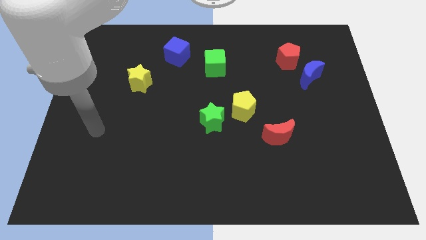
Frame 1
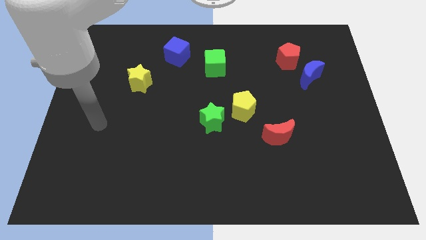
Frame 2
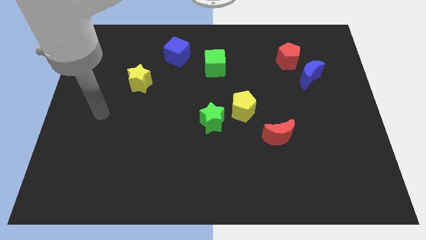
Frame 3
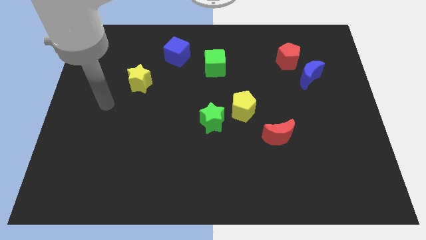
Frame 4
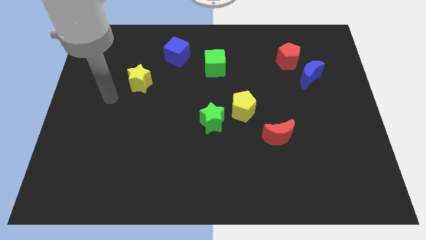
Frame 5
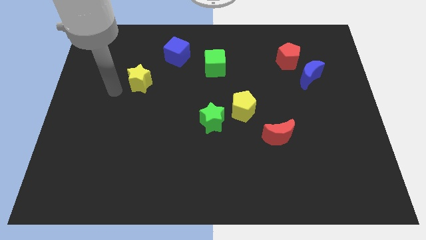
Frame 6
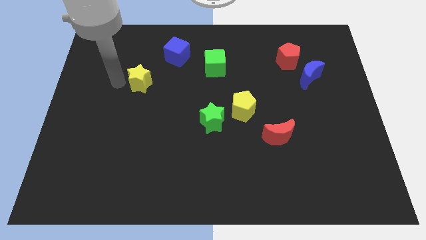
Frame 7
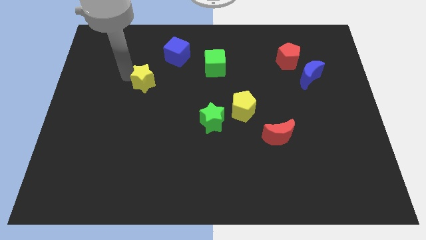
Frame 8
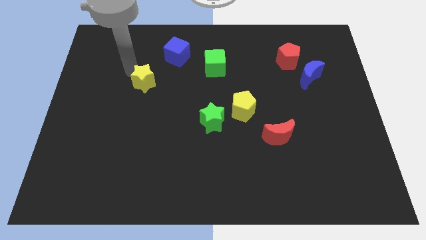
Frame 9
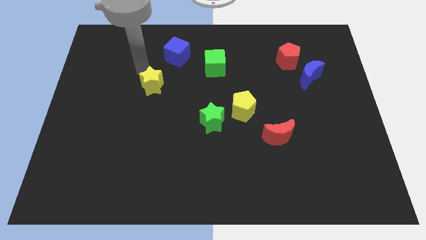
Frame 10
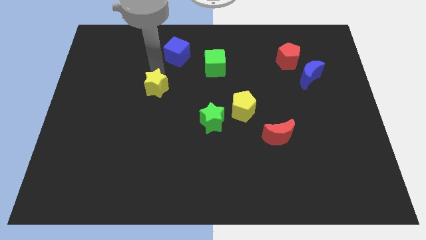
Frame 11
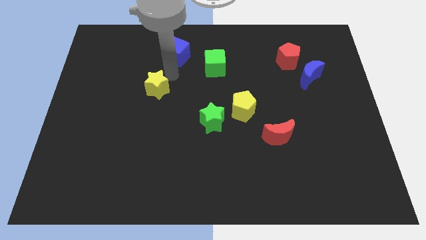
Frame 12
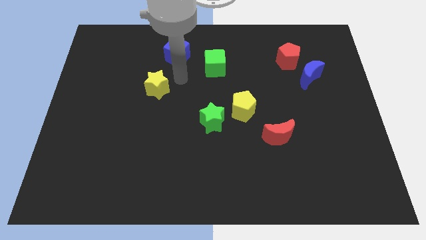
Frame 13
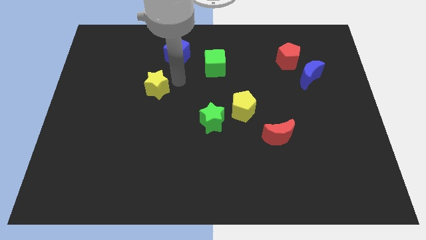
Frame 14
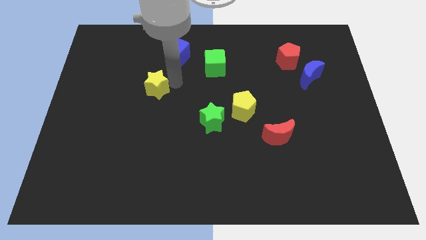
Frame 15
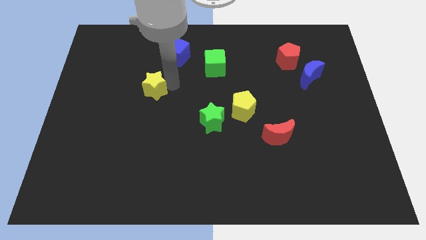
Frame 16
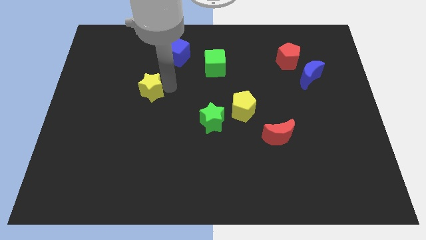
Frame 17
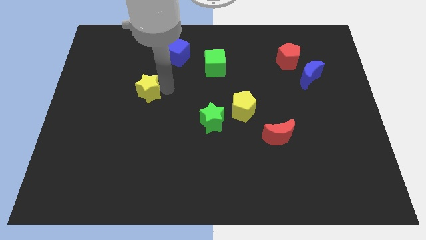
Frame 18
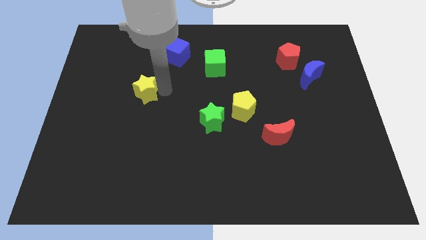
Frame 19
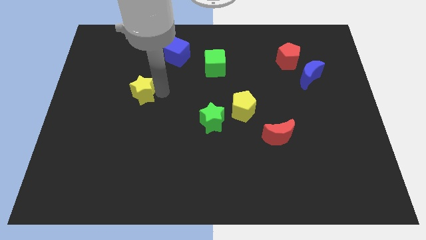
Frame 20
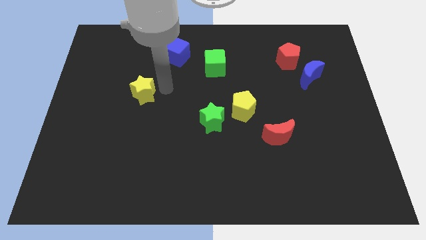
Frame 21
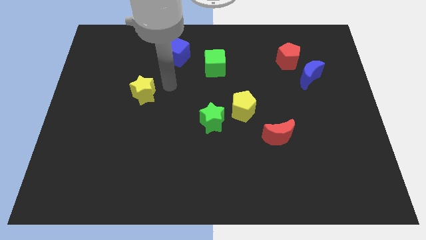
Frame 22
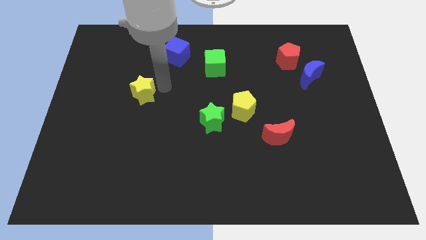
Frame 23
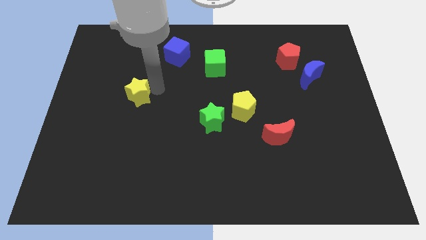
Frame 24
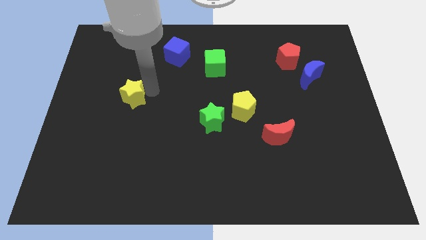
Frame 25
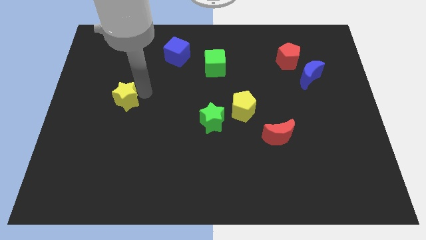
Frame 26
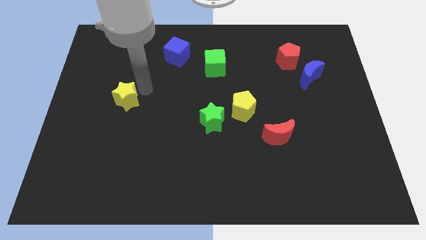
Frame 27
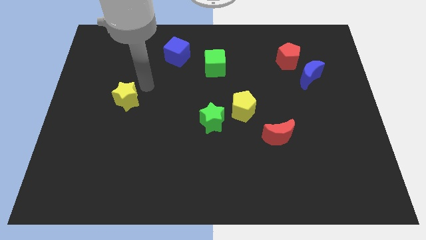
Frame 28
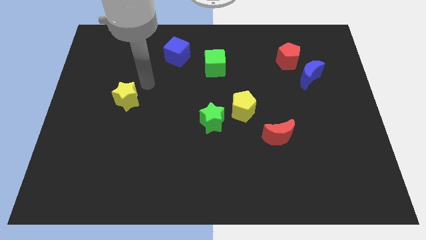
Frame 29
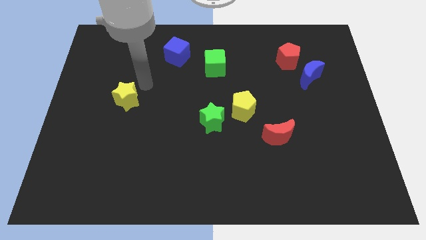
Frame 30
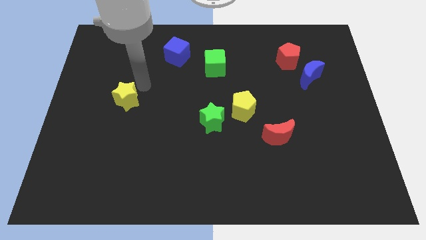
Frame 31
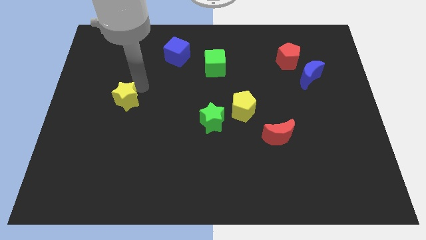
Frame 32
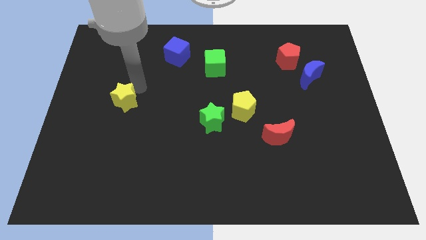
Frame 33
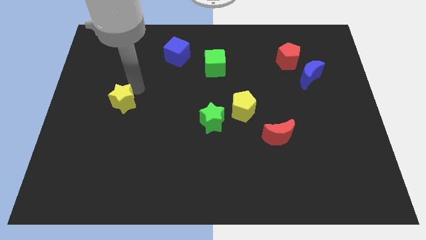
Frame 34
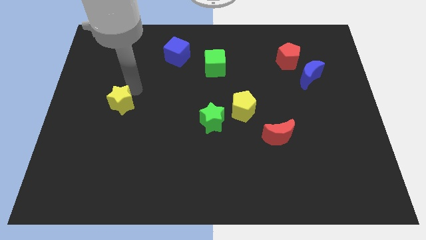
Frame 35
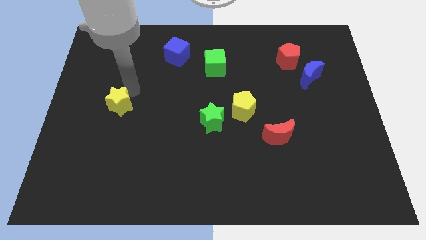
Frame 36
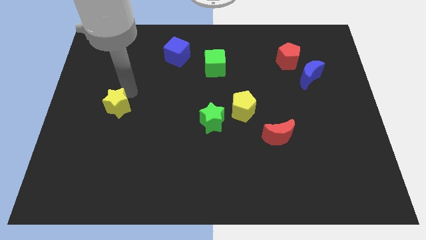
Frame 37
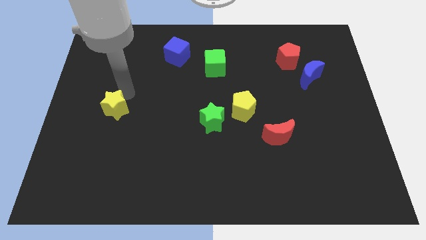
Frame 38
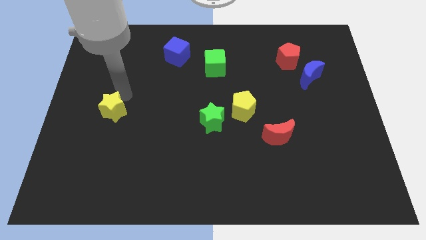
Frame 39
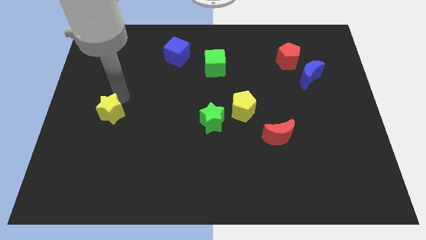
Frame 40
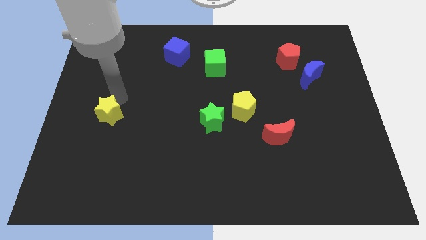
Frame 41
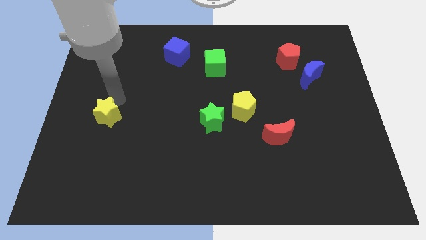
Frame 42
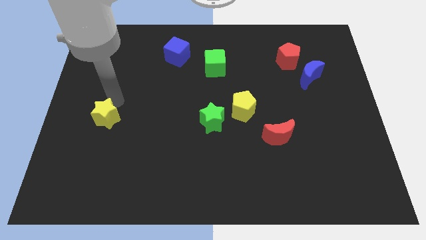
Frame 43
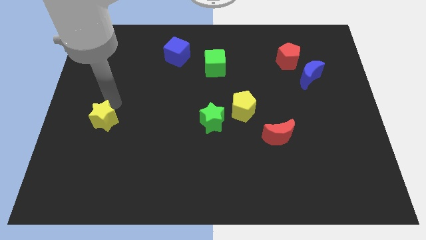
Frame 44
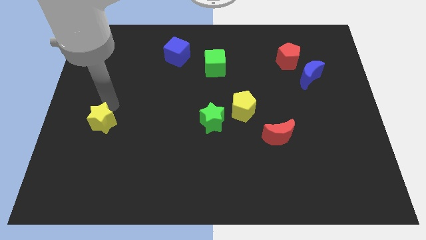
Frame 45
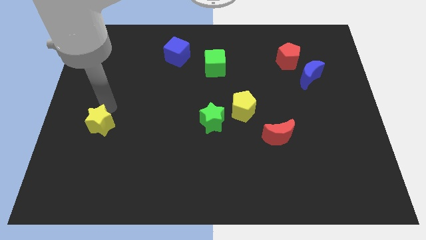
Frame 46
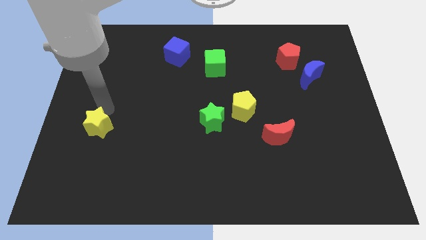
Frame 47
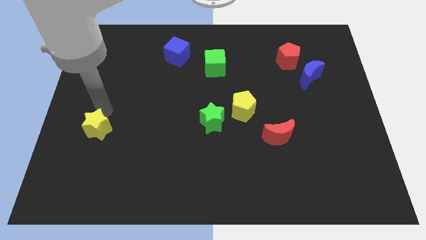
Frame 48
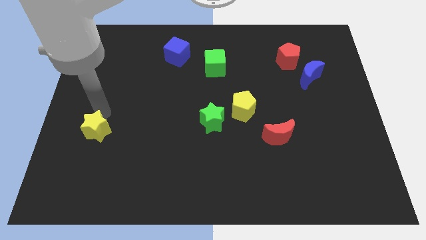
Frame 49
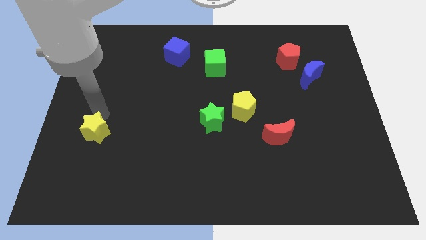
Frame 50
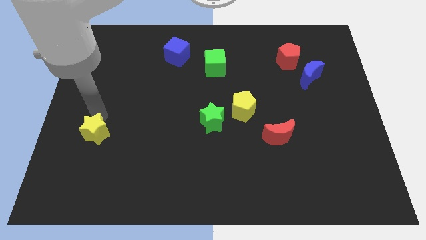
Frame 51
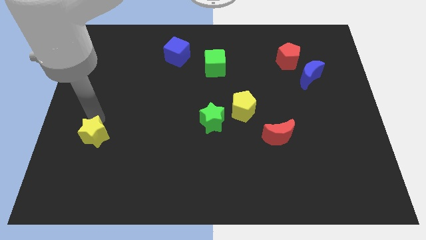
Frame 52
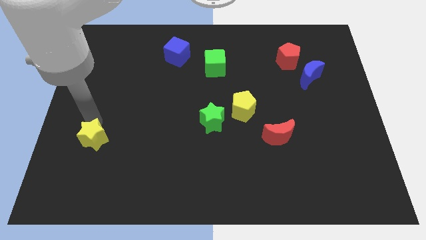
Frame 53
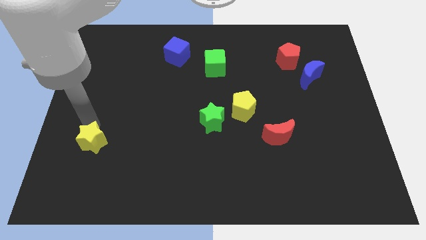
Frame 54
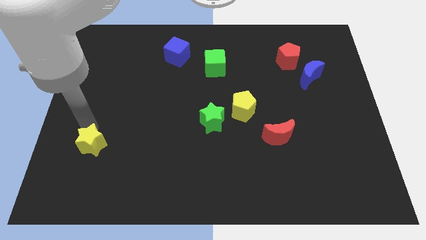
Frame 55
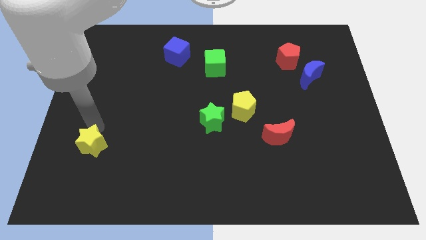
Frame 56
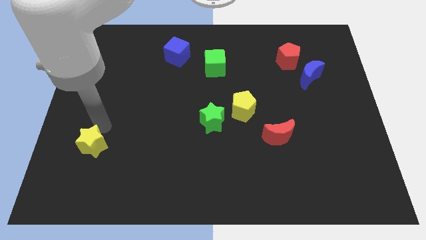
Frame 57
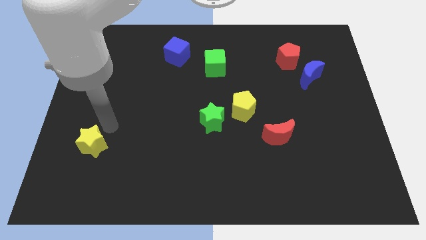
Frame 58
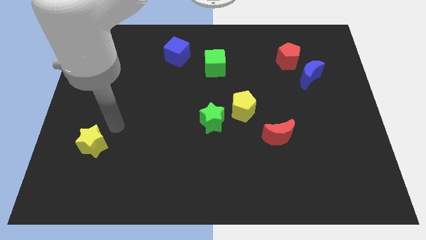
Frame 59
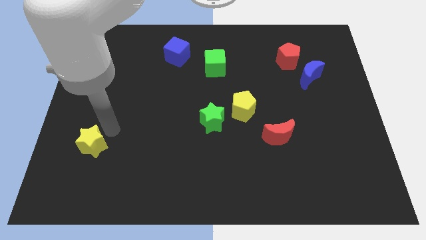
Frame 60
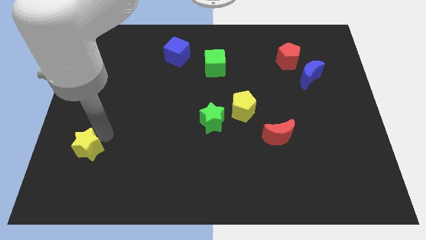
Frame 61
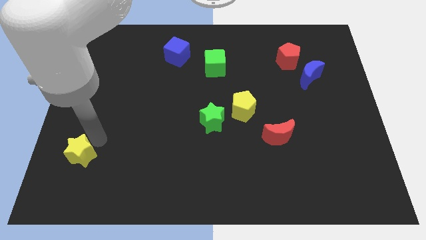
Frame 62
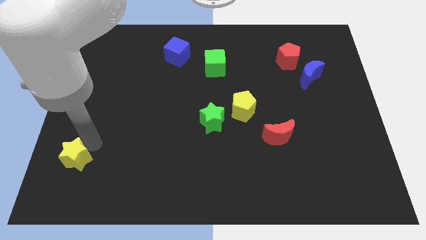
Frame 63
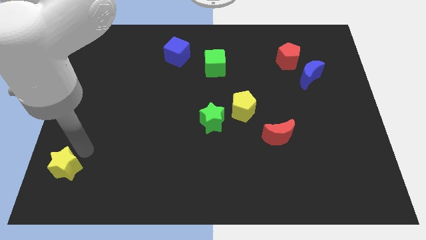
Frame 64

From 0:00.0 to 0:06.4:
put the yellow star to the bottom left
